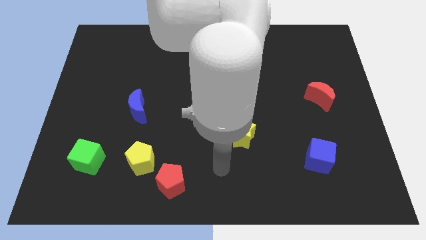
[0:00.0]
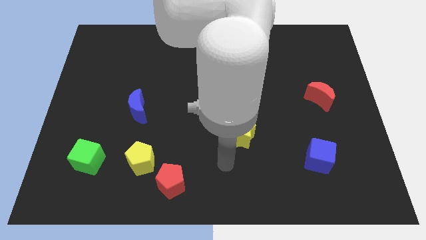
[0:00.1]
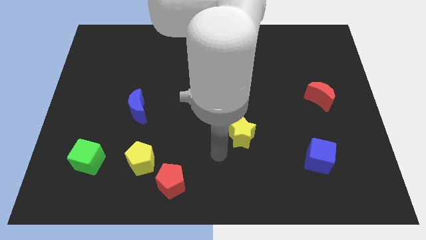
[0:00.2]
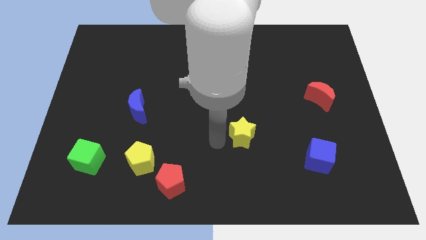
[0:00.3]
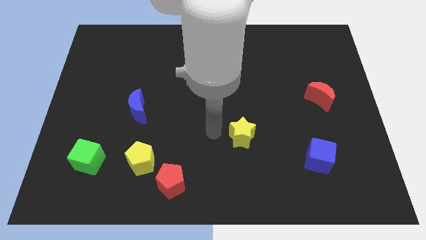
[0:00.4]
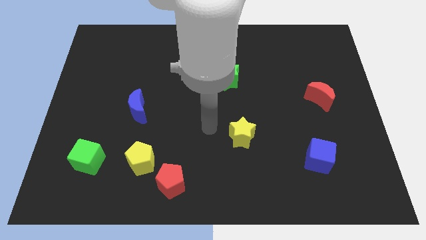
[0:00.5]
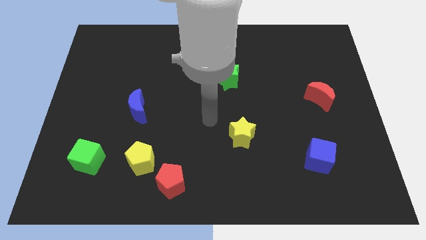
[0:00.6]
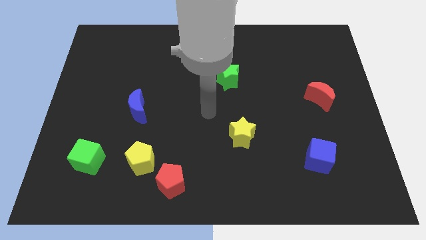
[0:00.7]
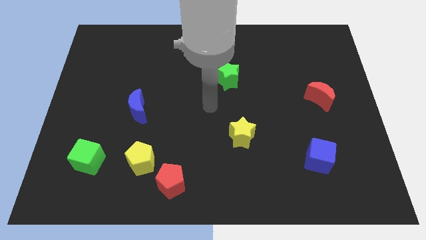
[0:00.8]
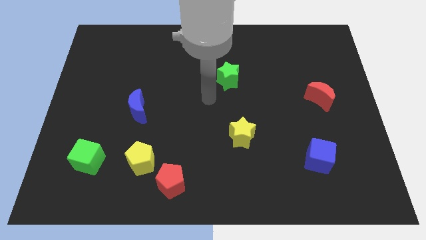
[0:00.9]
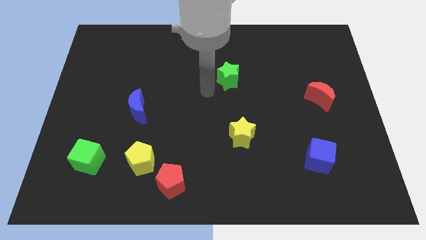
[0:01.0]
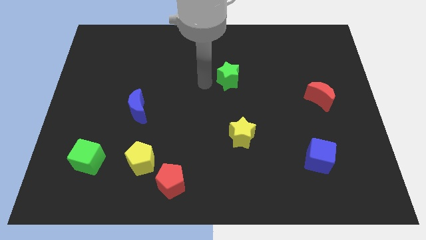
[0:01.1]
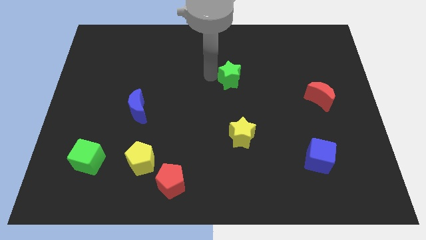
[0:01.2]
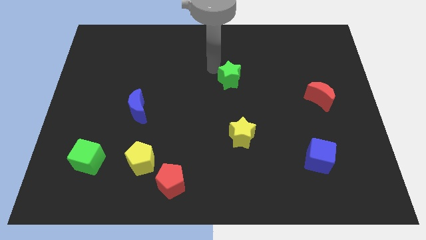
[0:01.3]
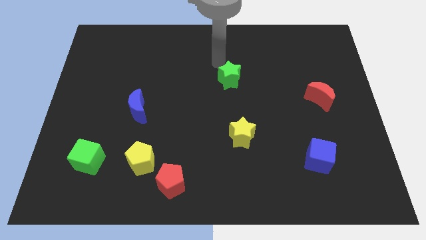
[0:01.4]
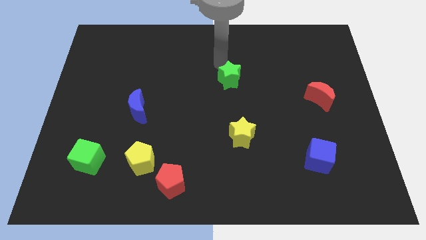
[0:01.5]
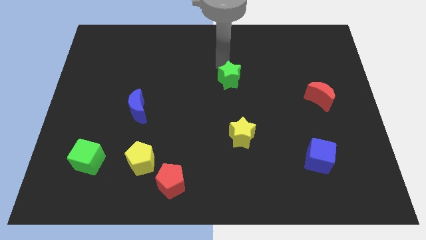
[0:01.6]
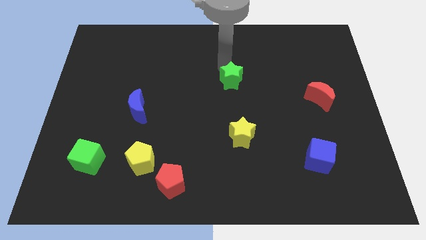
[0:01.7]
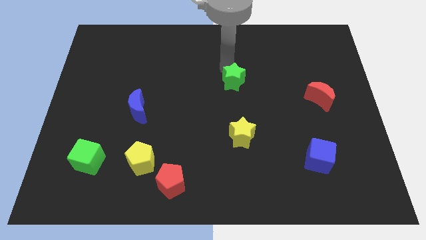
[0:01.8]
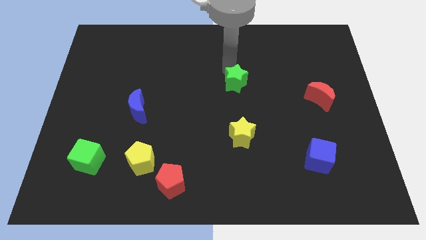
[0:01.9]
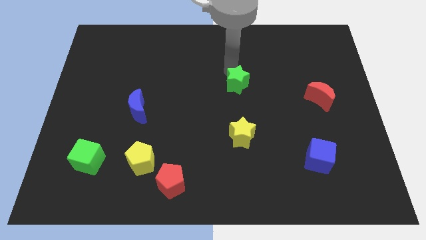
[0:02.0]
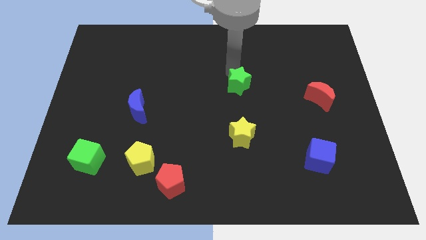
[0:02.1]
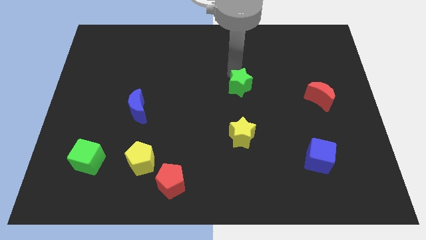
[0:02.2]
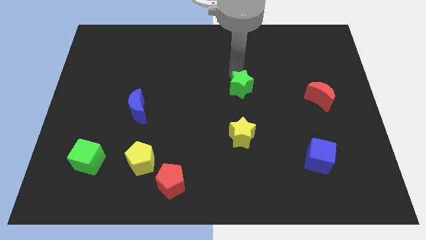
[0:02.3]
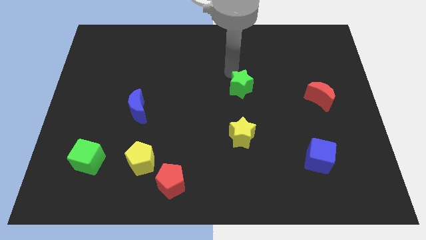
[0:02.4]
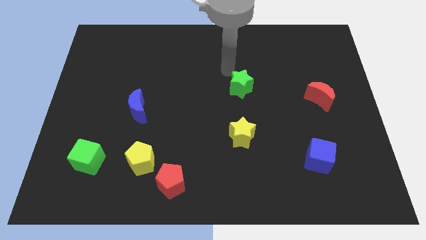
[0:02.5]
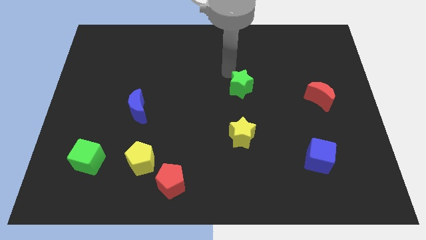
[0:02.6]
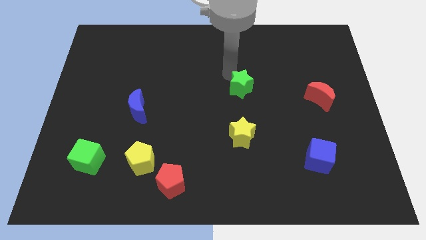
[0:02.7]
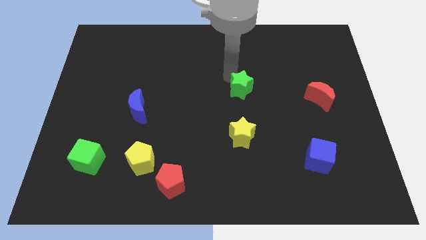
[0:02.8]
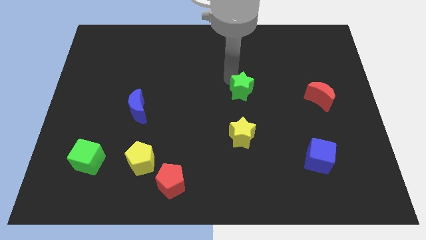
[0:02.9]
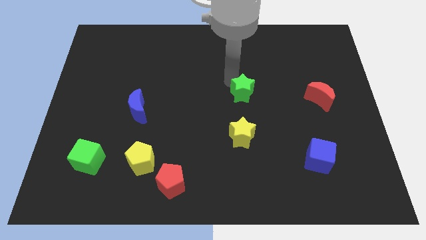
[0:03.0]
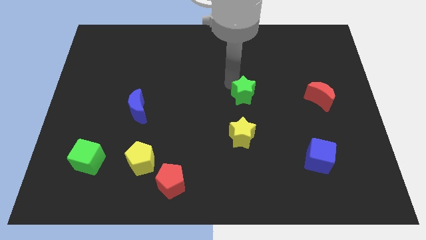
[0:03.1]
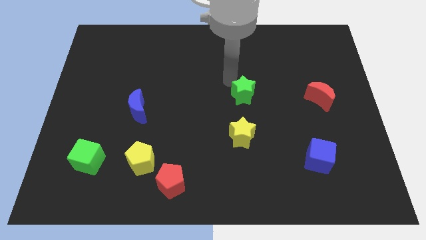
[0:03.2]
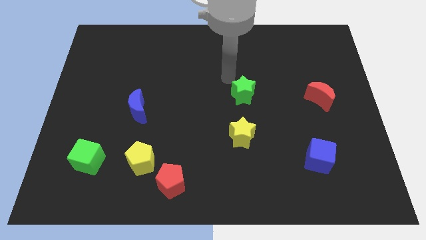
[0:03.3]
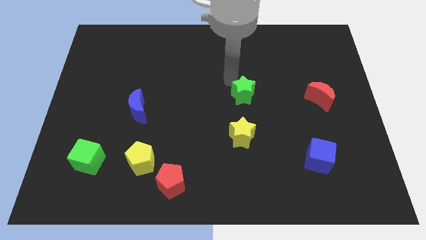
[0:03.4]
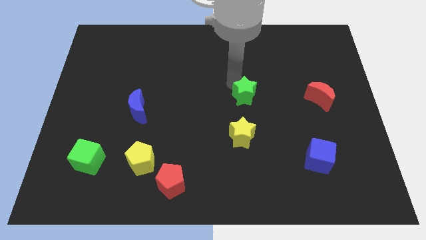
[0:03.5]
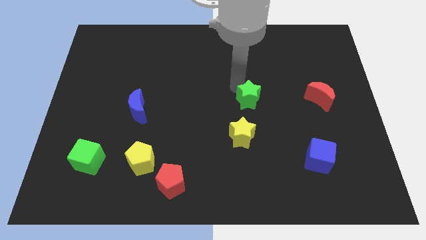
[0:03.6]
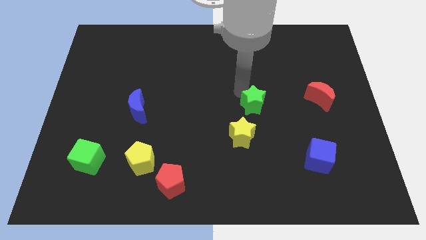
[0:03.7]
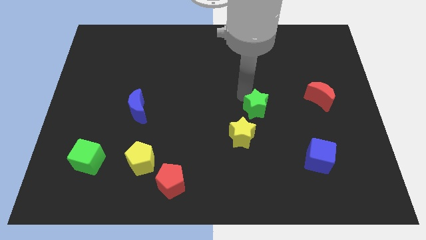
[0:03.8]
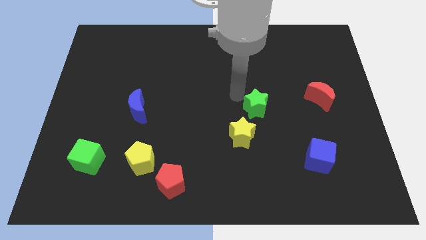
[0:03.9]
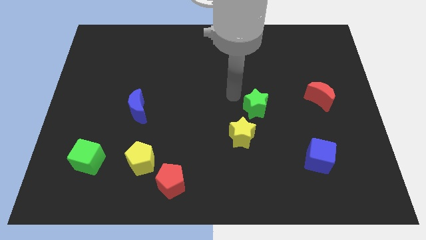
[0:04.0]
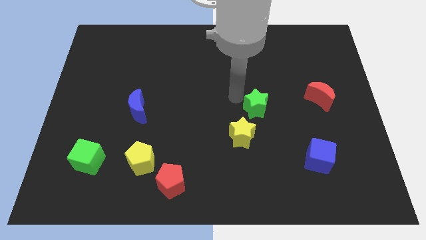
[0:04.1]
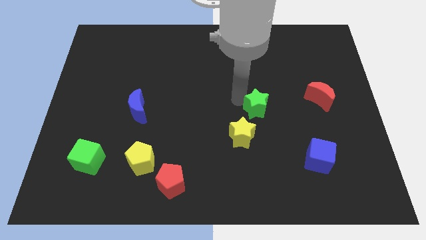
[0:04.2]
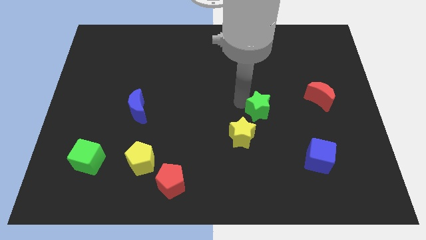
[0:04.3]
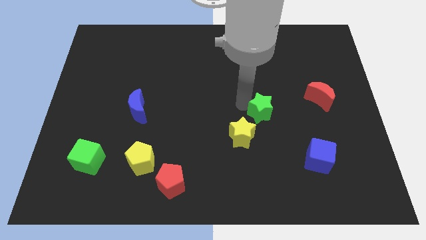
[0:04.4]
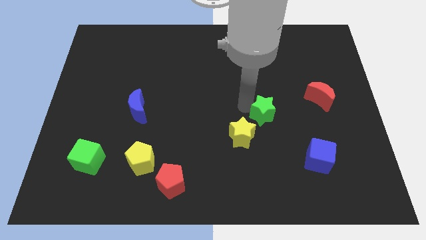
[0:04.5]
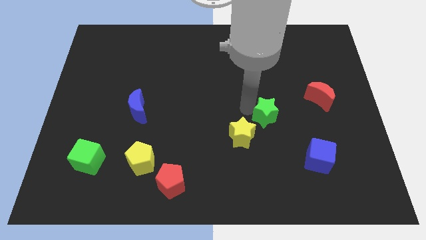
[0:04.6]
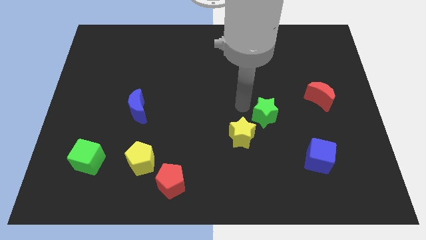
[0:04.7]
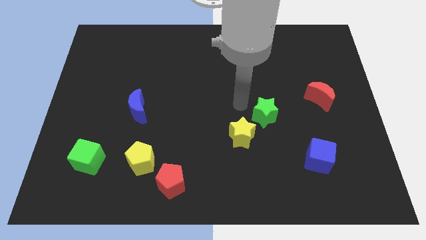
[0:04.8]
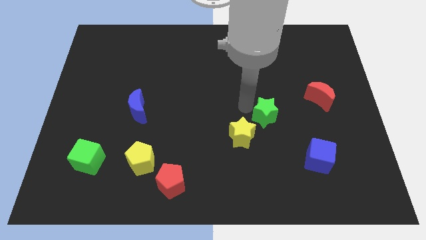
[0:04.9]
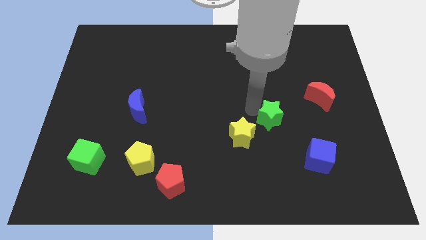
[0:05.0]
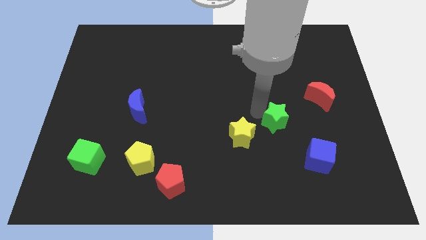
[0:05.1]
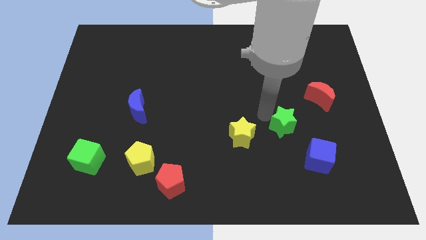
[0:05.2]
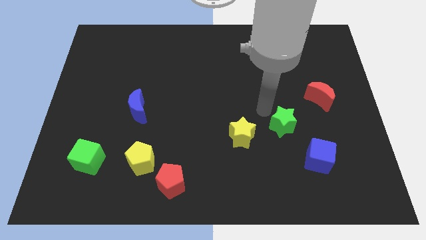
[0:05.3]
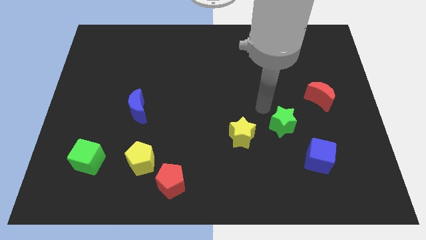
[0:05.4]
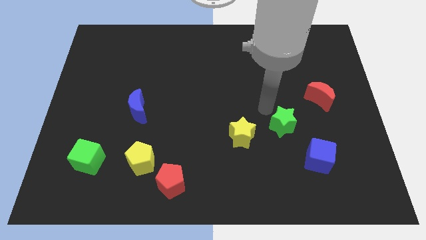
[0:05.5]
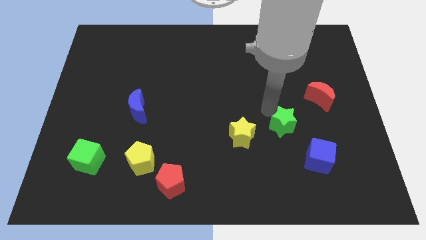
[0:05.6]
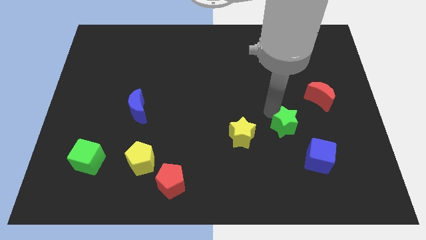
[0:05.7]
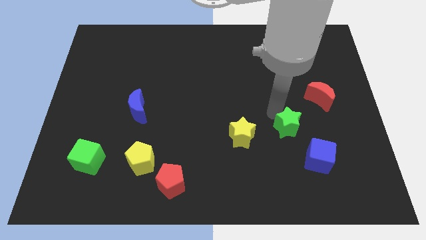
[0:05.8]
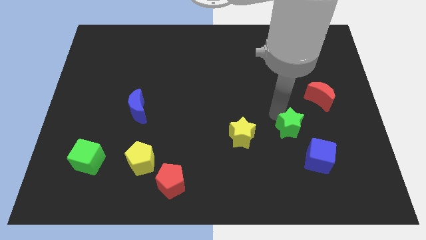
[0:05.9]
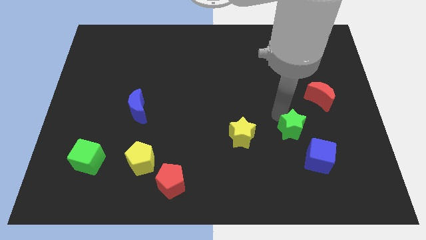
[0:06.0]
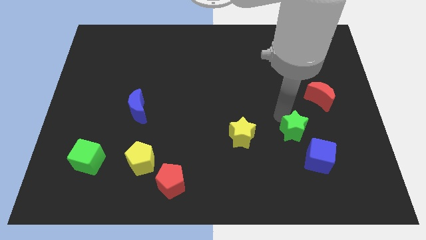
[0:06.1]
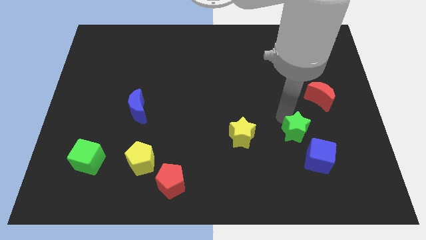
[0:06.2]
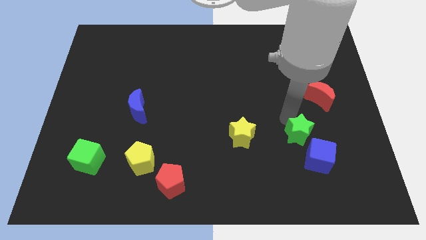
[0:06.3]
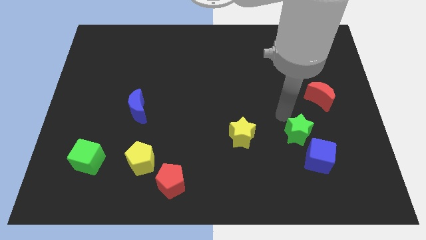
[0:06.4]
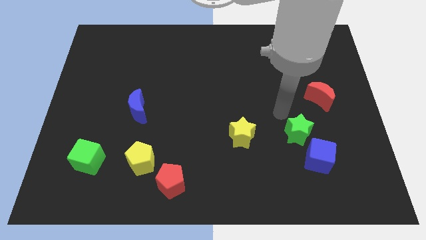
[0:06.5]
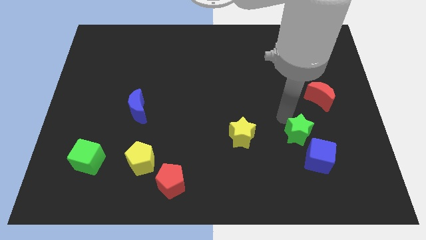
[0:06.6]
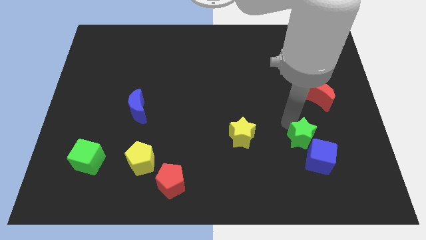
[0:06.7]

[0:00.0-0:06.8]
put the green star close to the blue cube

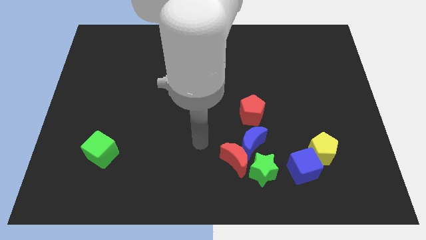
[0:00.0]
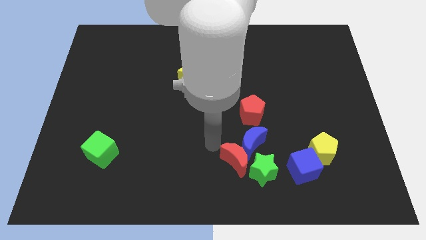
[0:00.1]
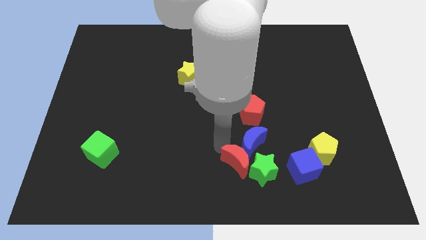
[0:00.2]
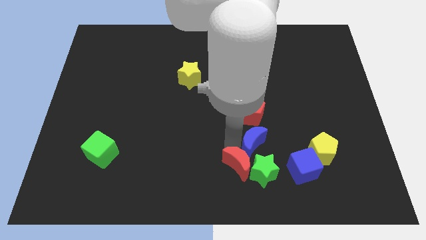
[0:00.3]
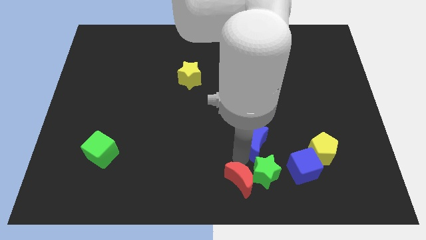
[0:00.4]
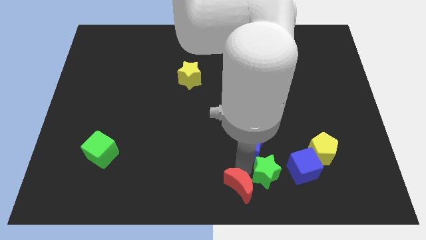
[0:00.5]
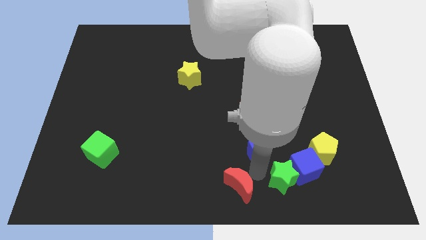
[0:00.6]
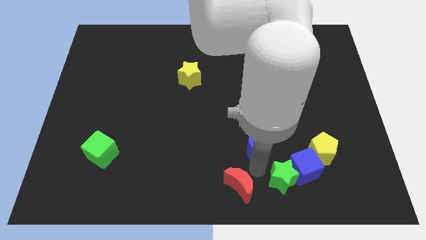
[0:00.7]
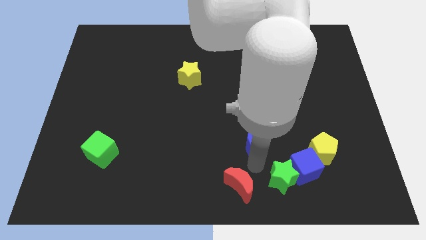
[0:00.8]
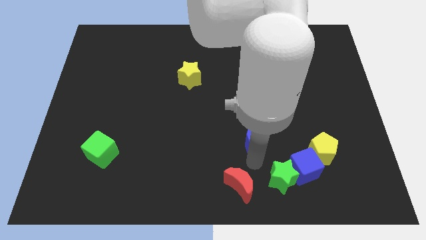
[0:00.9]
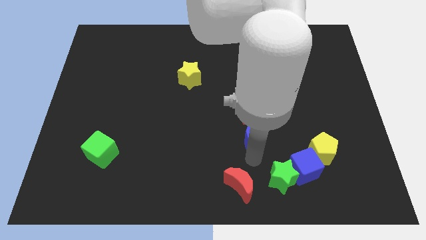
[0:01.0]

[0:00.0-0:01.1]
push the blue moon close to the red pentagon
